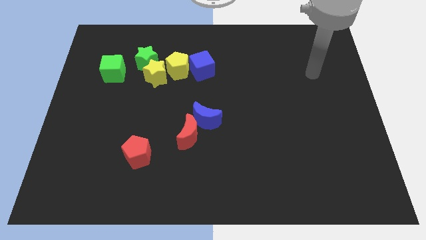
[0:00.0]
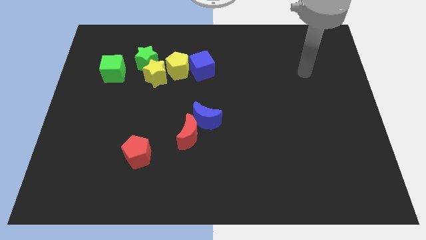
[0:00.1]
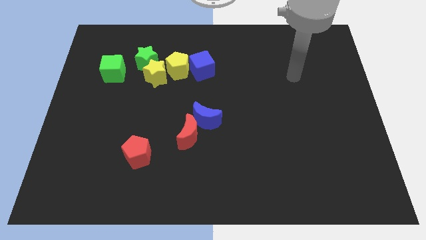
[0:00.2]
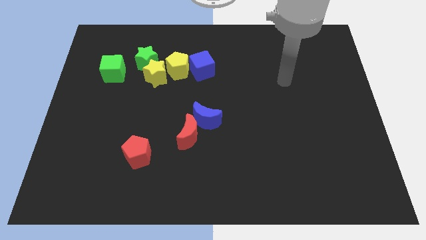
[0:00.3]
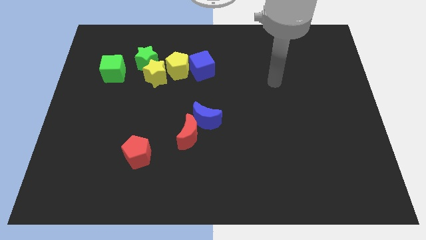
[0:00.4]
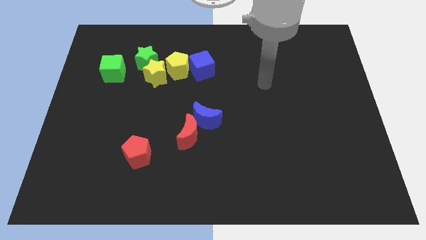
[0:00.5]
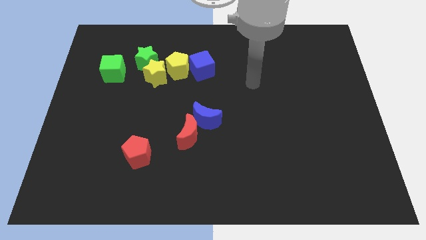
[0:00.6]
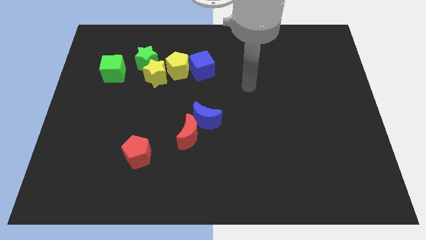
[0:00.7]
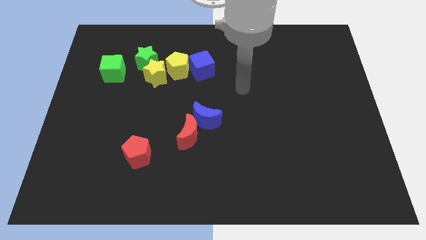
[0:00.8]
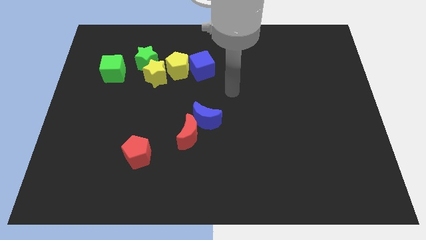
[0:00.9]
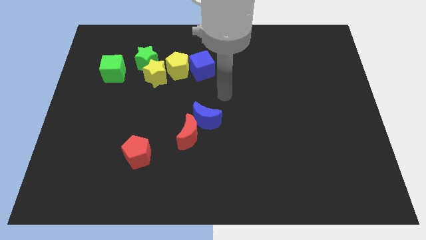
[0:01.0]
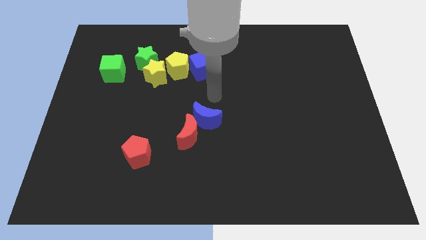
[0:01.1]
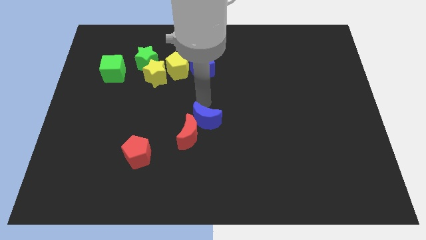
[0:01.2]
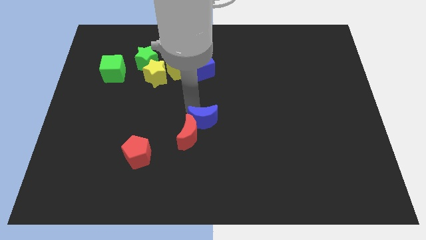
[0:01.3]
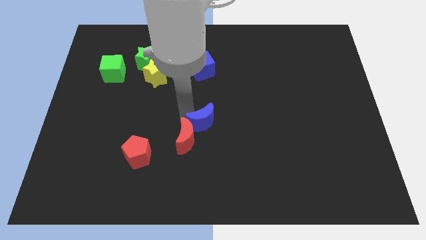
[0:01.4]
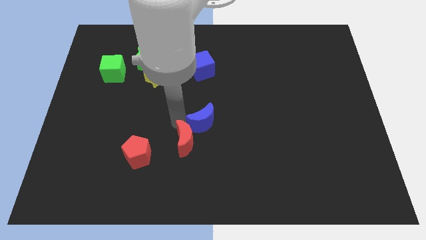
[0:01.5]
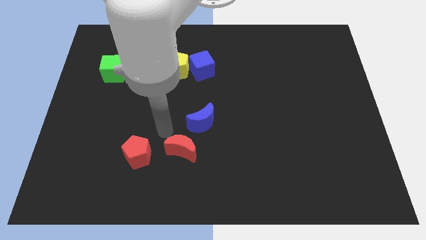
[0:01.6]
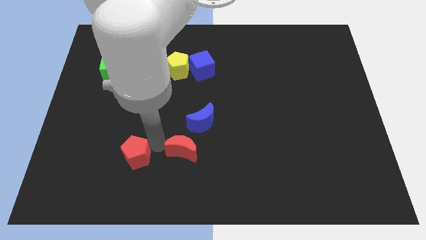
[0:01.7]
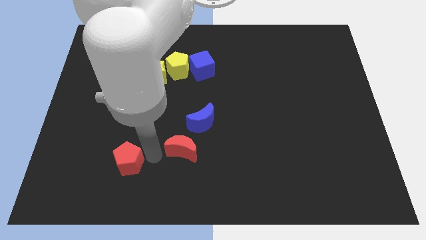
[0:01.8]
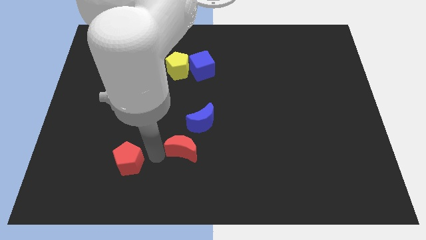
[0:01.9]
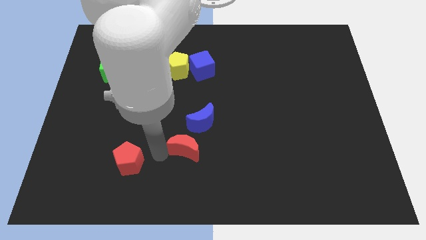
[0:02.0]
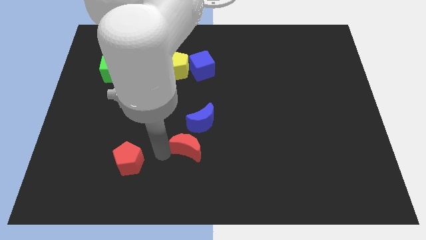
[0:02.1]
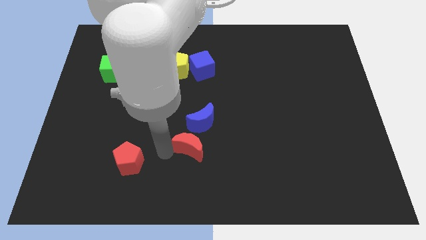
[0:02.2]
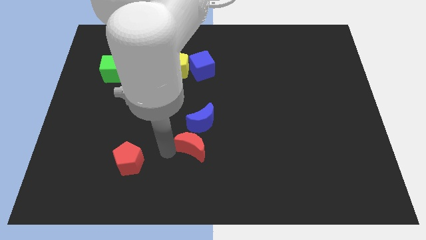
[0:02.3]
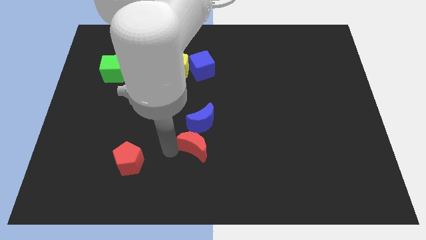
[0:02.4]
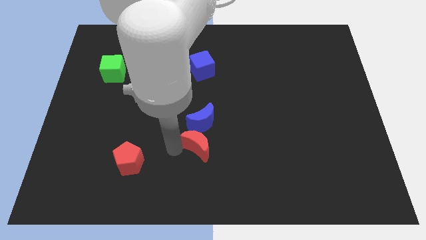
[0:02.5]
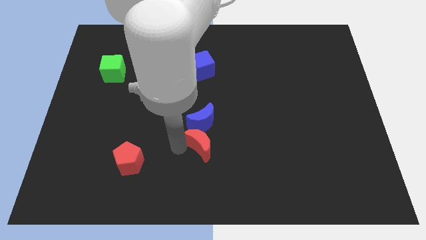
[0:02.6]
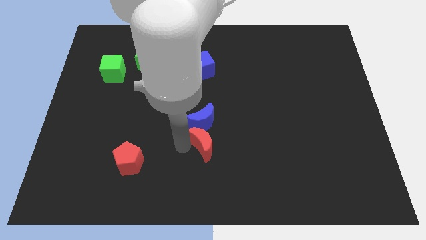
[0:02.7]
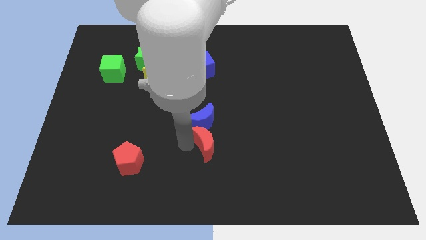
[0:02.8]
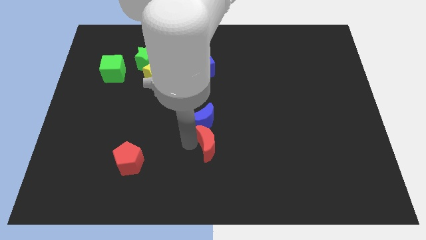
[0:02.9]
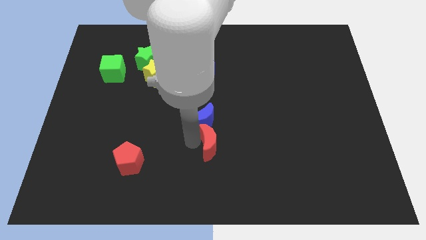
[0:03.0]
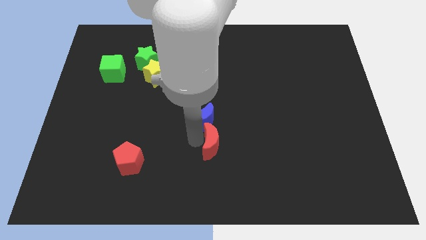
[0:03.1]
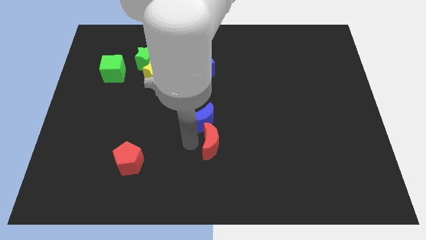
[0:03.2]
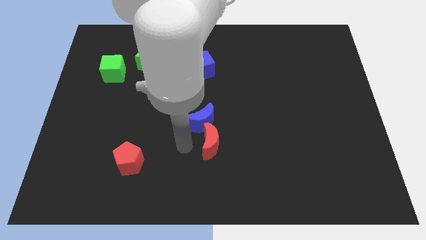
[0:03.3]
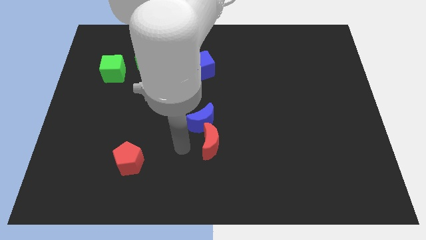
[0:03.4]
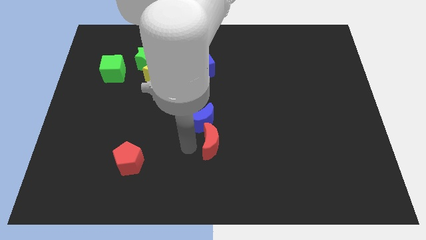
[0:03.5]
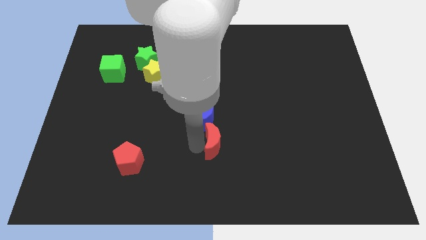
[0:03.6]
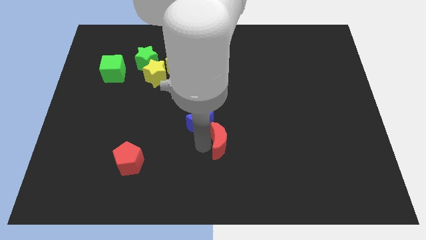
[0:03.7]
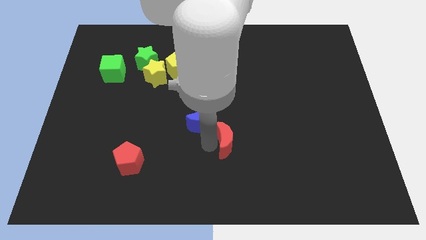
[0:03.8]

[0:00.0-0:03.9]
move the red moon to the right slightly

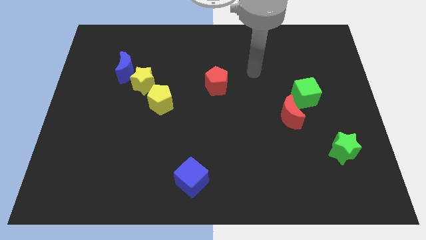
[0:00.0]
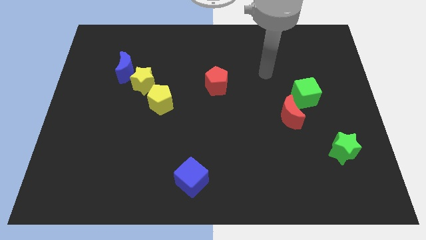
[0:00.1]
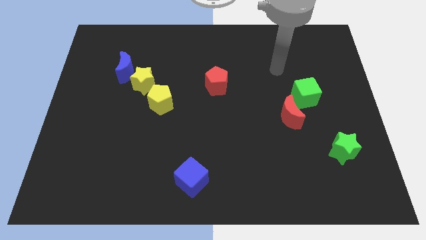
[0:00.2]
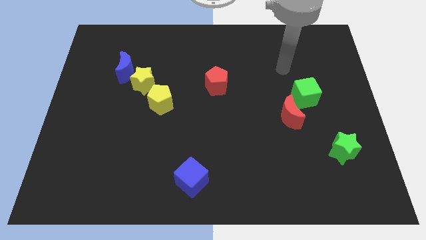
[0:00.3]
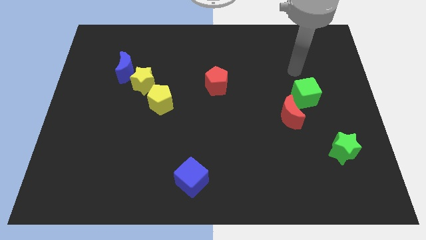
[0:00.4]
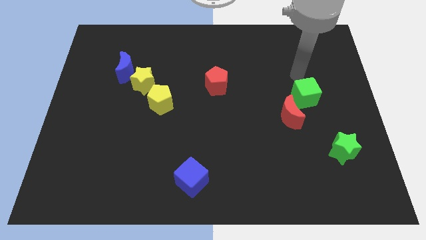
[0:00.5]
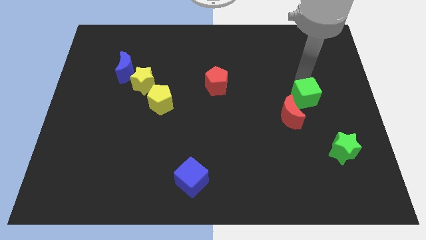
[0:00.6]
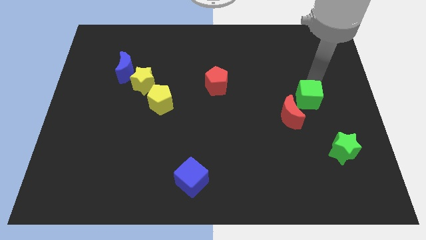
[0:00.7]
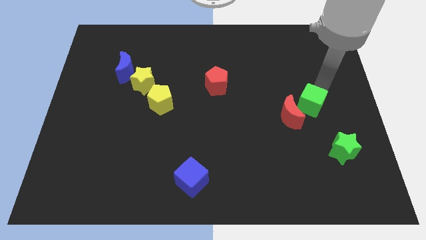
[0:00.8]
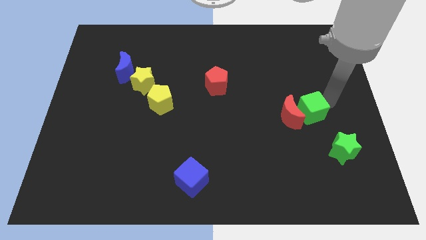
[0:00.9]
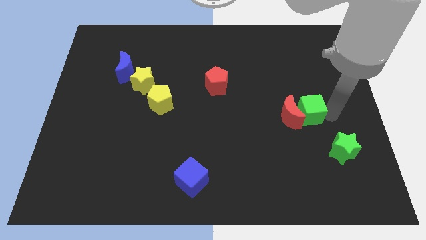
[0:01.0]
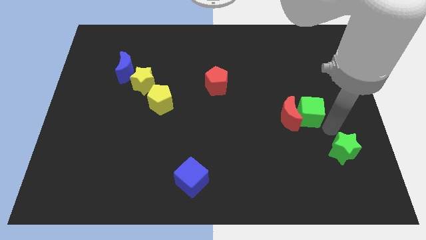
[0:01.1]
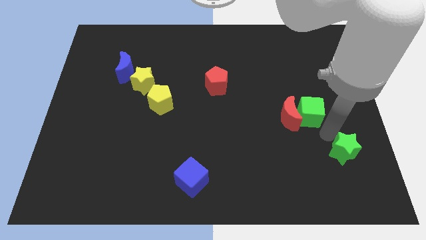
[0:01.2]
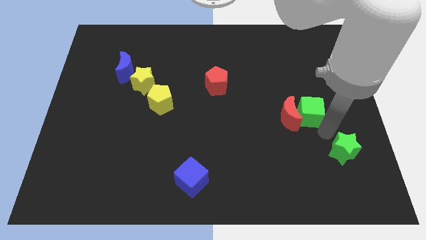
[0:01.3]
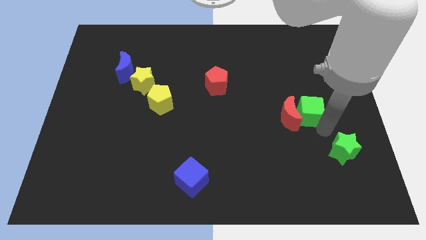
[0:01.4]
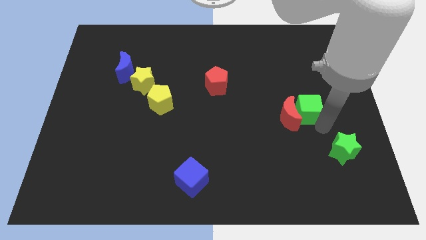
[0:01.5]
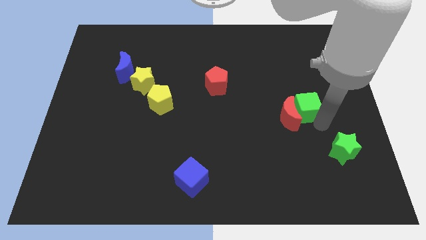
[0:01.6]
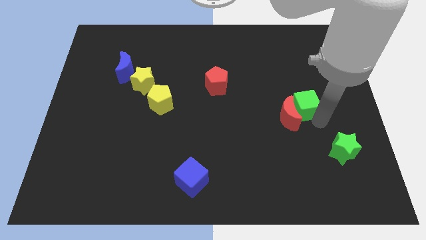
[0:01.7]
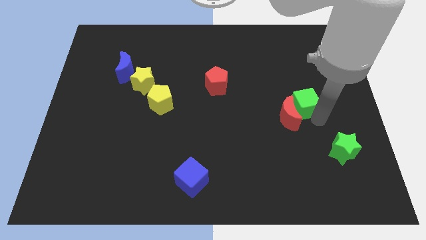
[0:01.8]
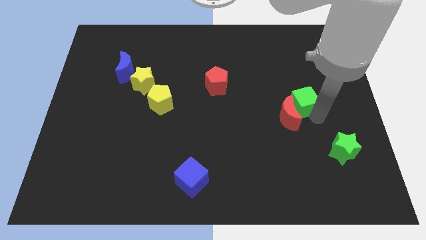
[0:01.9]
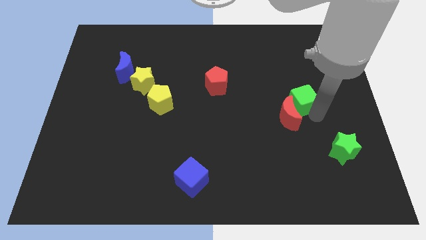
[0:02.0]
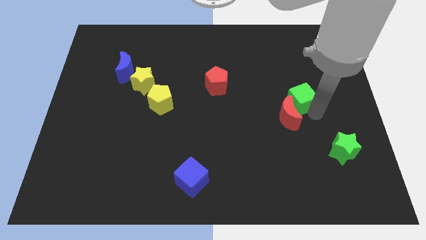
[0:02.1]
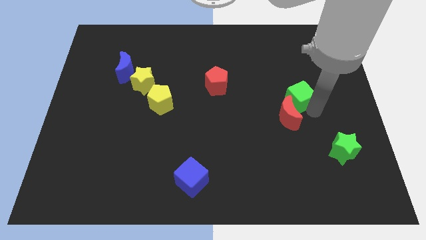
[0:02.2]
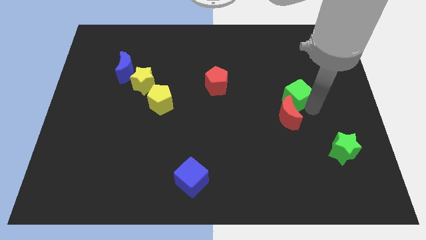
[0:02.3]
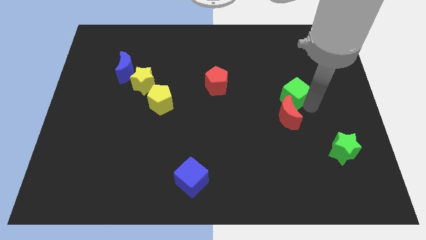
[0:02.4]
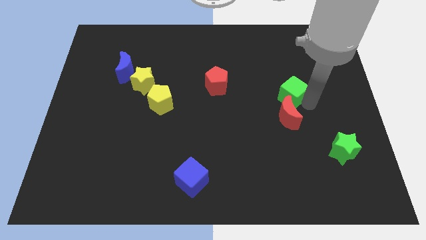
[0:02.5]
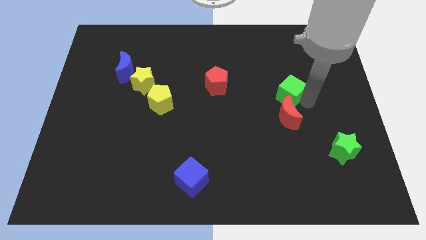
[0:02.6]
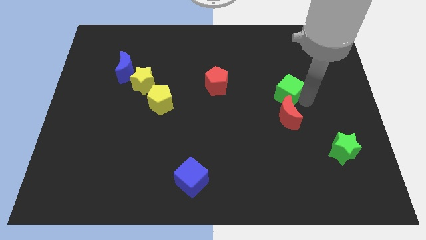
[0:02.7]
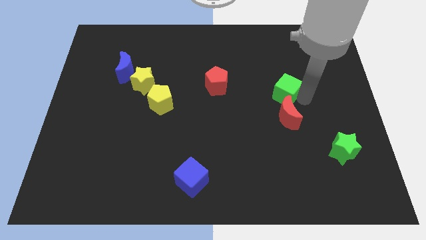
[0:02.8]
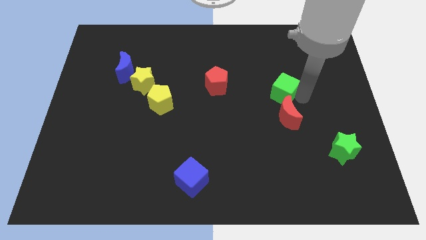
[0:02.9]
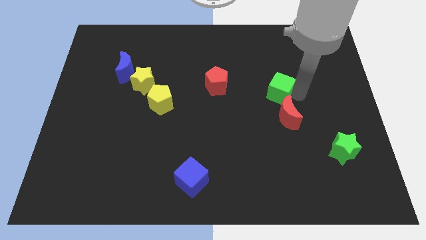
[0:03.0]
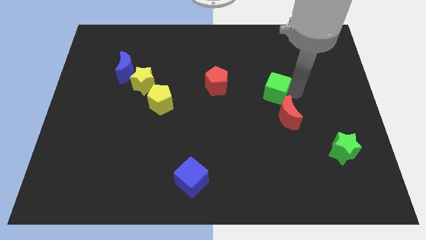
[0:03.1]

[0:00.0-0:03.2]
slide the green cube slightly to the left

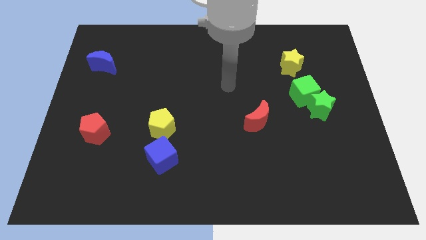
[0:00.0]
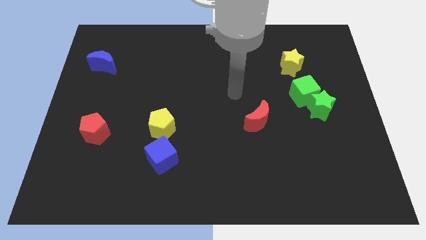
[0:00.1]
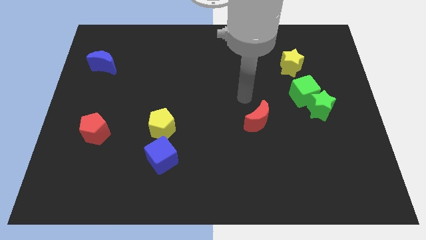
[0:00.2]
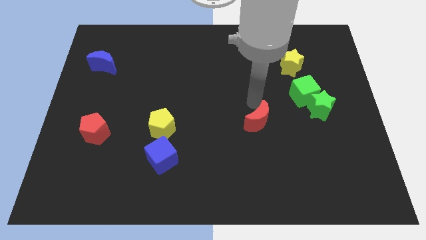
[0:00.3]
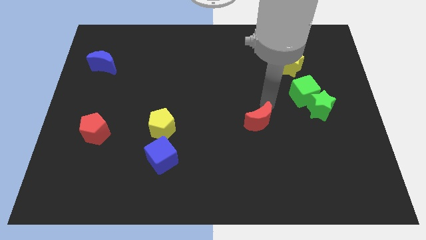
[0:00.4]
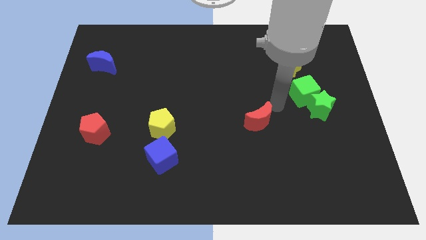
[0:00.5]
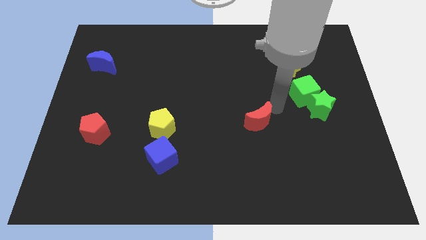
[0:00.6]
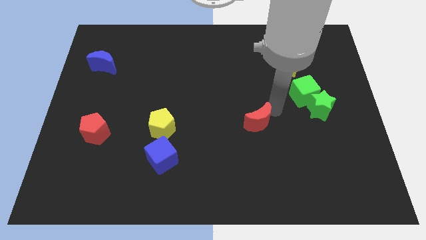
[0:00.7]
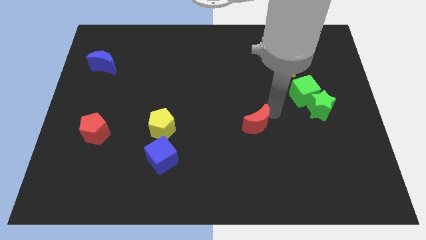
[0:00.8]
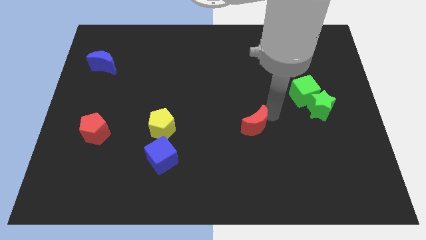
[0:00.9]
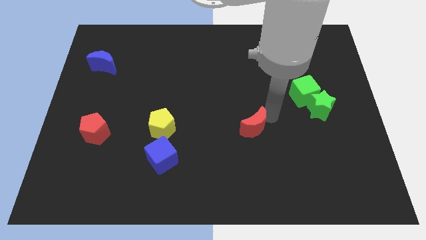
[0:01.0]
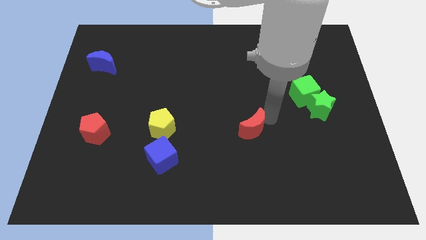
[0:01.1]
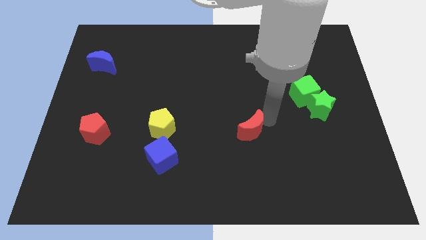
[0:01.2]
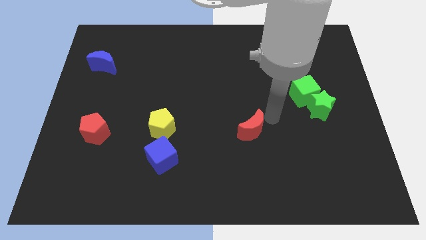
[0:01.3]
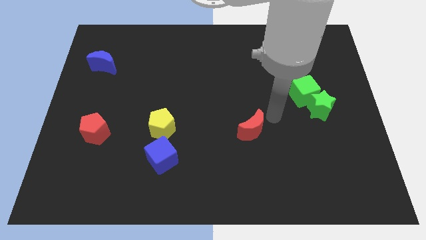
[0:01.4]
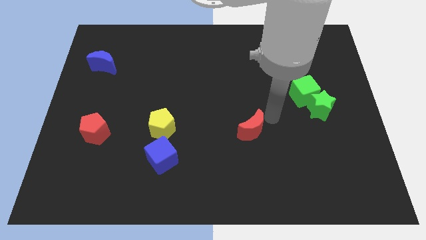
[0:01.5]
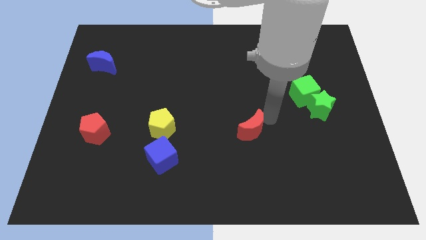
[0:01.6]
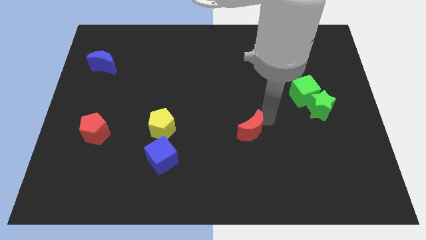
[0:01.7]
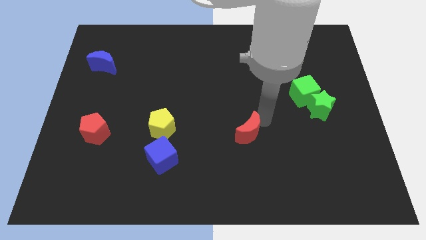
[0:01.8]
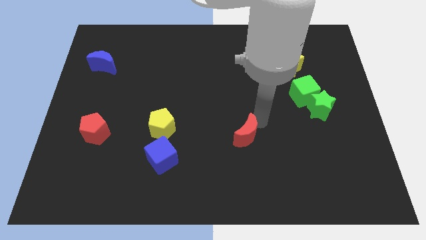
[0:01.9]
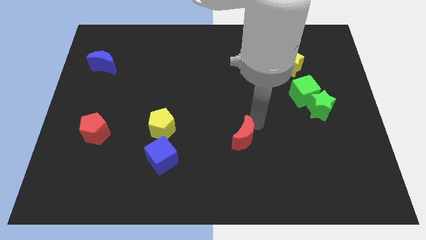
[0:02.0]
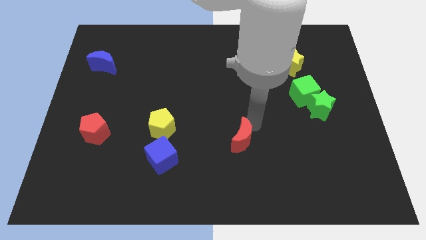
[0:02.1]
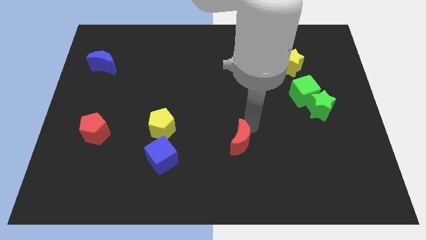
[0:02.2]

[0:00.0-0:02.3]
push the red moon a little downwards and then to the left
